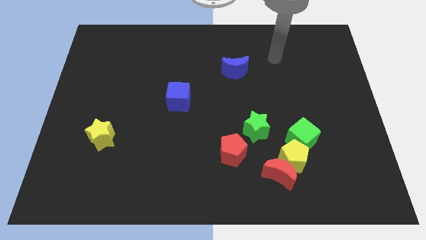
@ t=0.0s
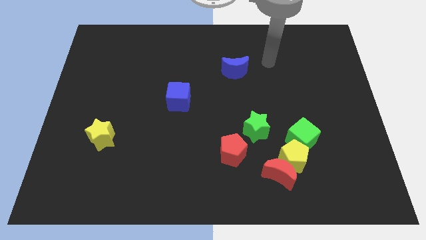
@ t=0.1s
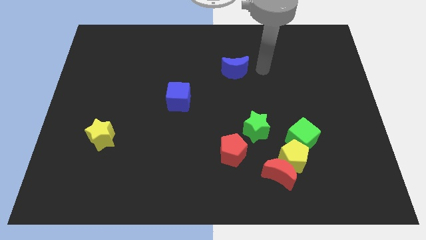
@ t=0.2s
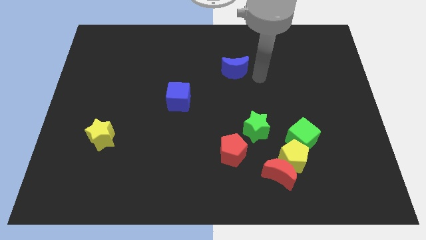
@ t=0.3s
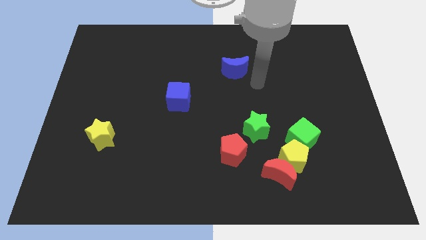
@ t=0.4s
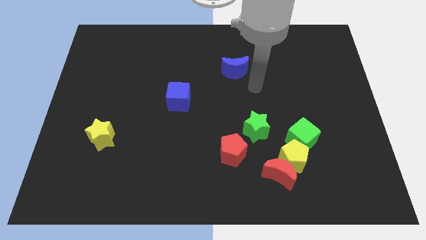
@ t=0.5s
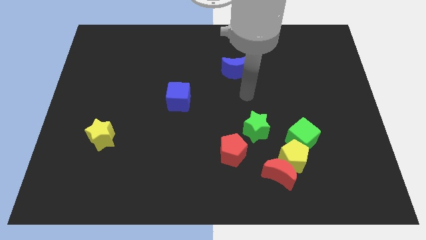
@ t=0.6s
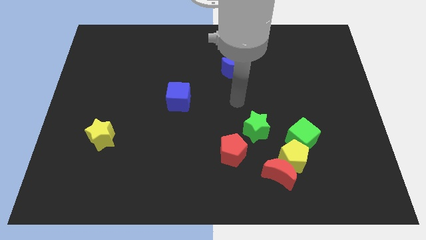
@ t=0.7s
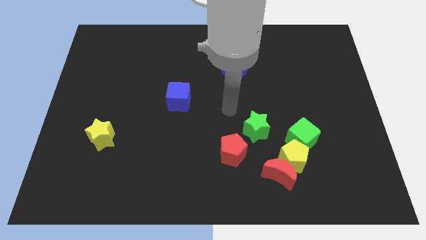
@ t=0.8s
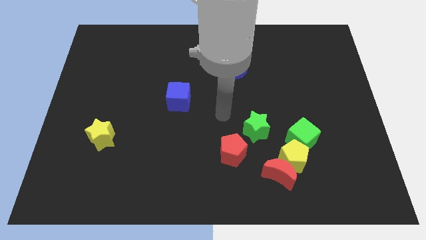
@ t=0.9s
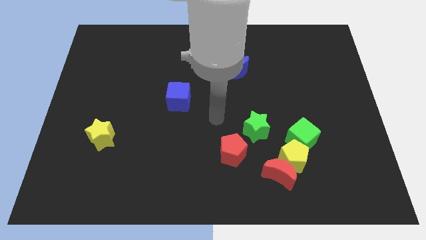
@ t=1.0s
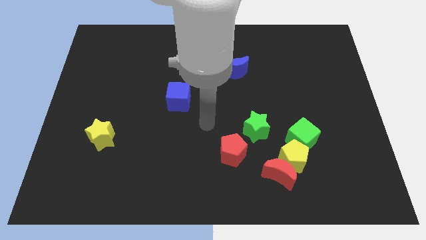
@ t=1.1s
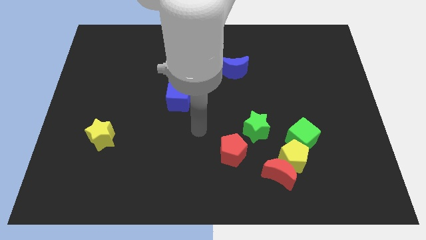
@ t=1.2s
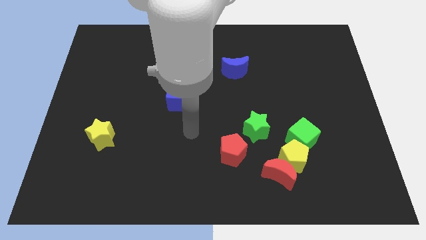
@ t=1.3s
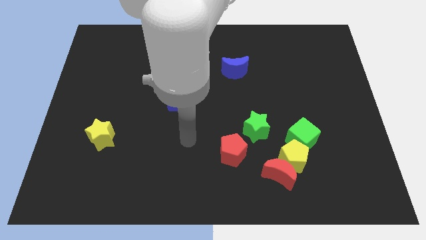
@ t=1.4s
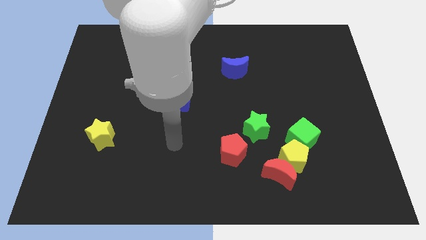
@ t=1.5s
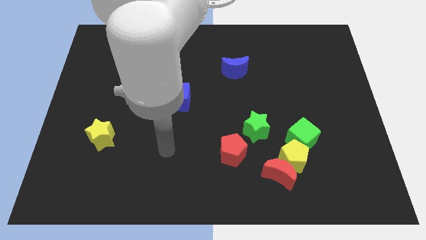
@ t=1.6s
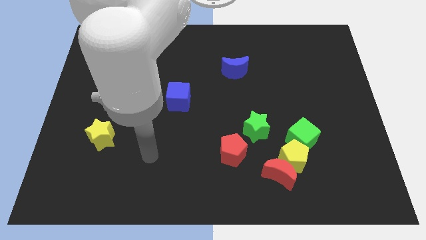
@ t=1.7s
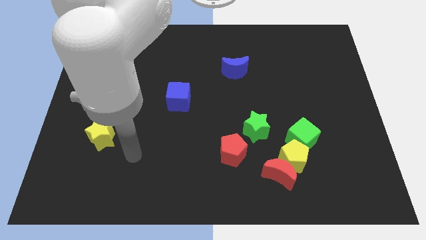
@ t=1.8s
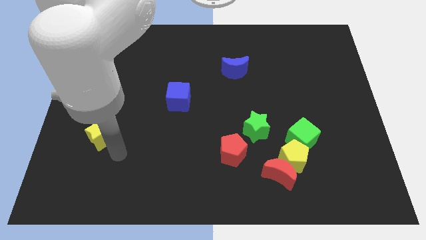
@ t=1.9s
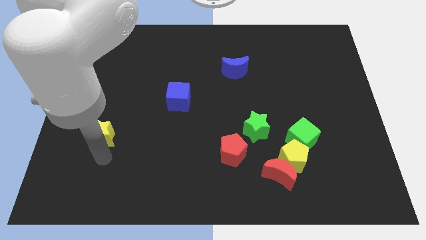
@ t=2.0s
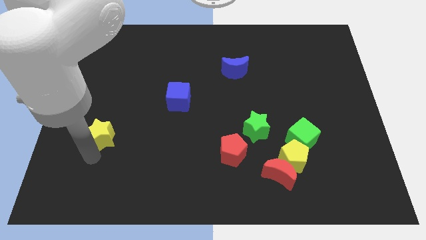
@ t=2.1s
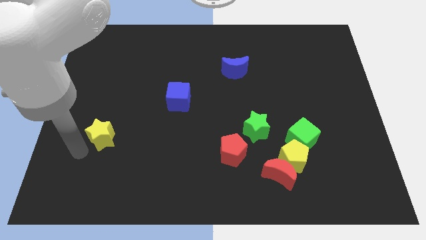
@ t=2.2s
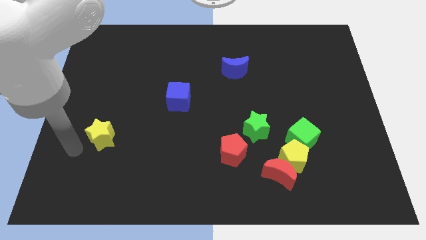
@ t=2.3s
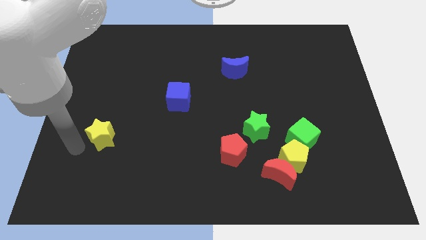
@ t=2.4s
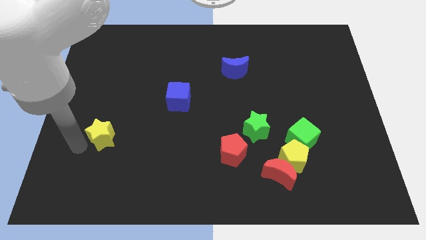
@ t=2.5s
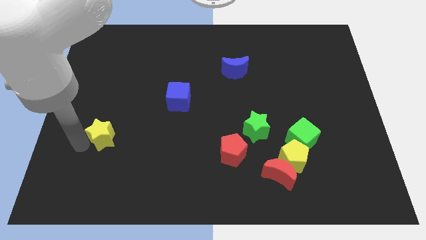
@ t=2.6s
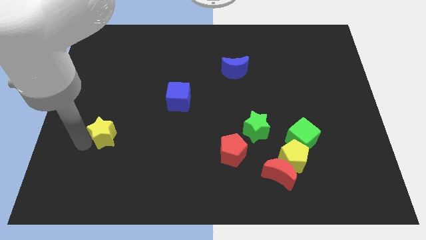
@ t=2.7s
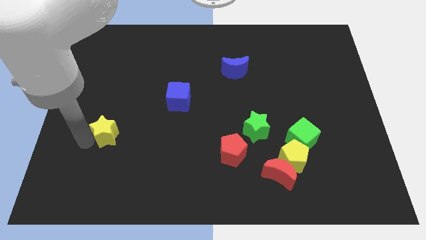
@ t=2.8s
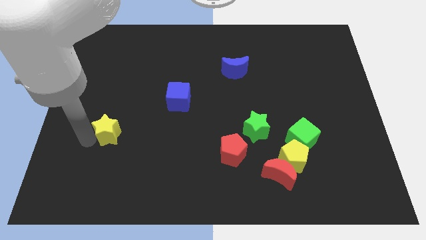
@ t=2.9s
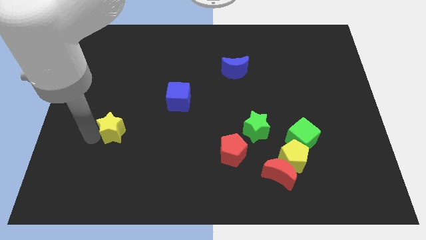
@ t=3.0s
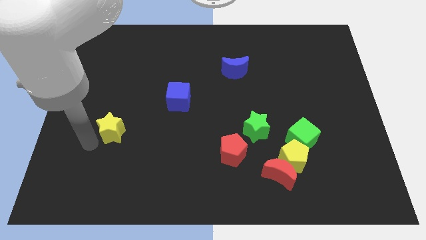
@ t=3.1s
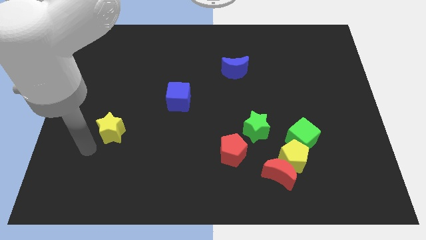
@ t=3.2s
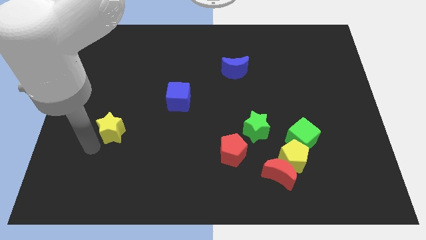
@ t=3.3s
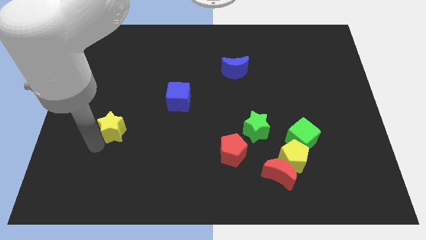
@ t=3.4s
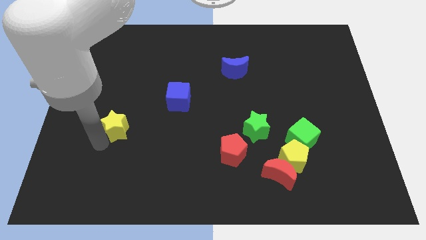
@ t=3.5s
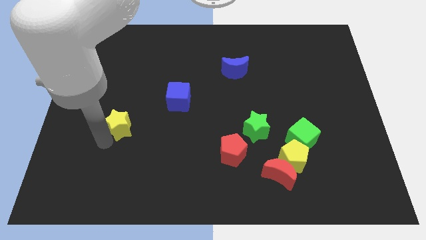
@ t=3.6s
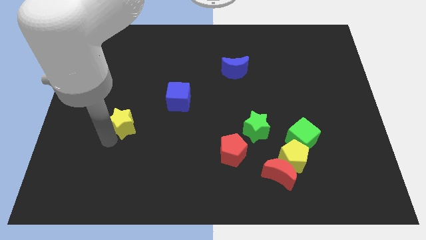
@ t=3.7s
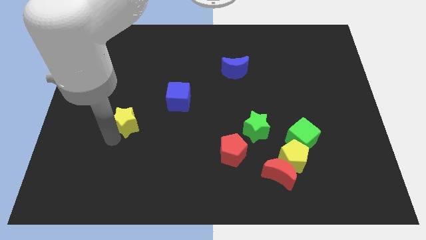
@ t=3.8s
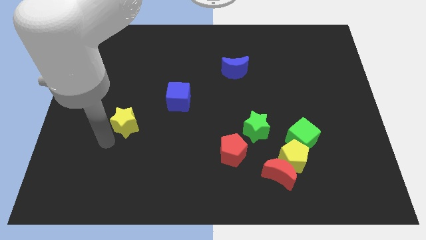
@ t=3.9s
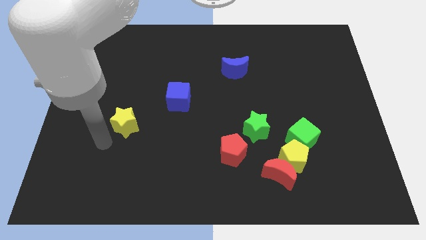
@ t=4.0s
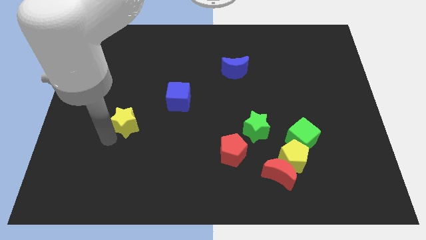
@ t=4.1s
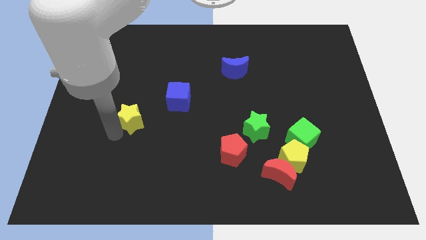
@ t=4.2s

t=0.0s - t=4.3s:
move the yellow star slightly diagonally up and to the right

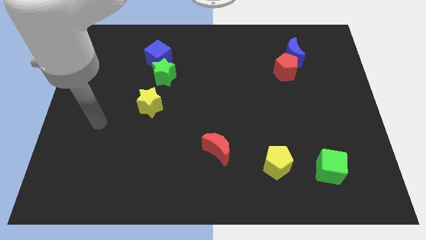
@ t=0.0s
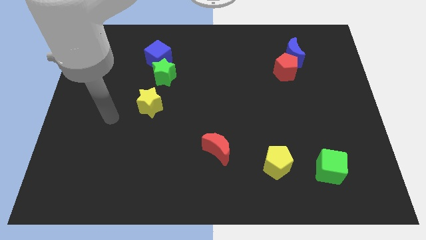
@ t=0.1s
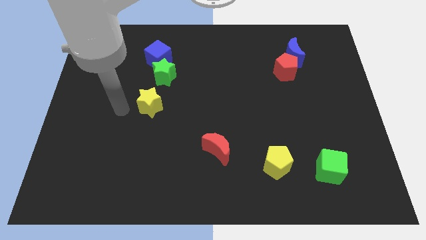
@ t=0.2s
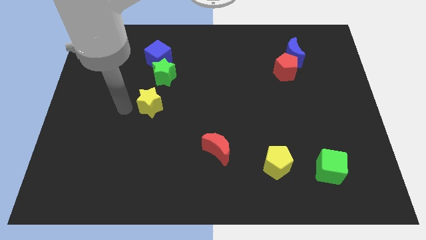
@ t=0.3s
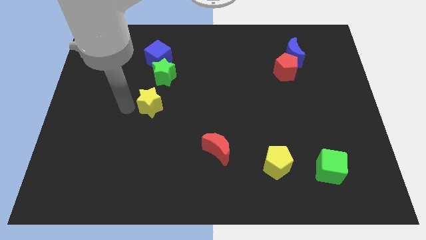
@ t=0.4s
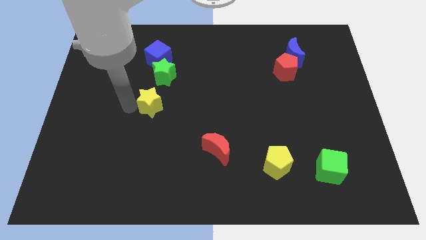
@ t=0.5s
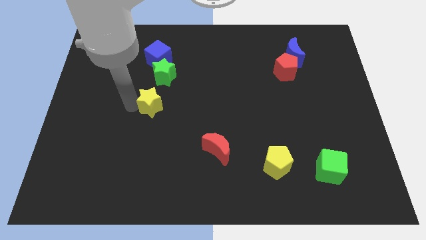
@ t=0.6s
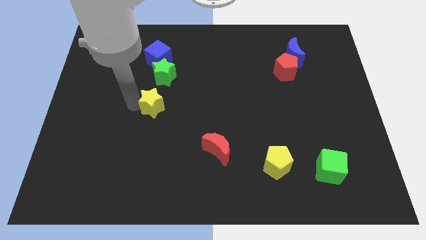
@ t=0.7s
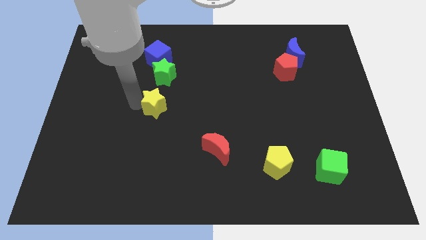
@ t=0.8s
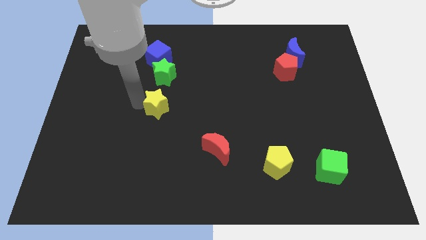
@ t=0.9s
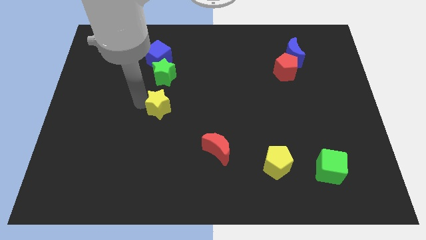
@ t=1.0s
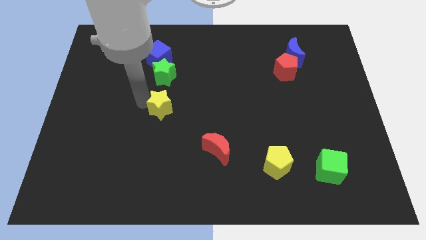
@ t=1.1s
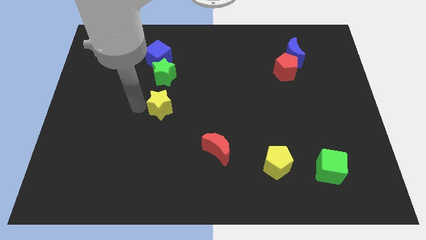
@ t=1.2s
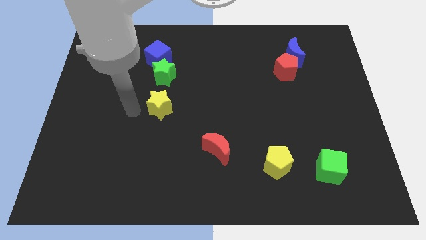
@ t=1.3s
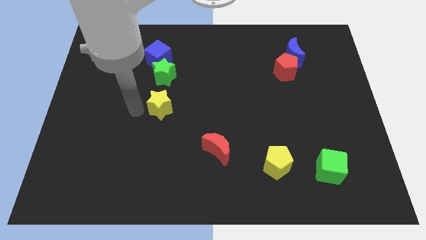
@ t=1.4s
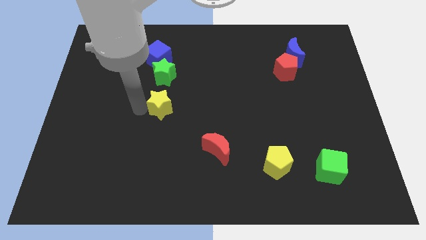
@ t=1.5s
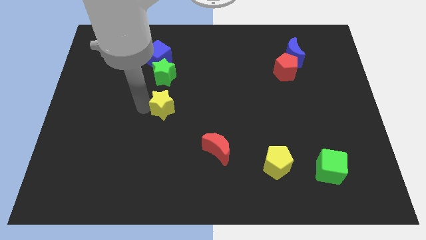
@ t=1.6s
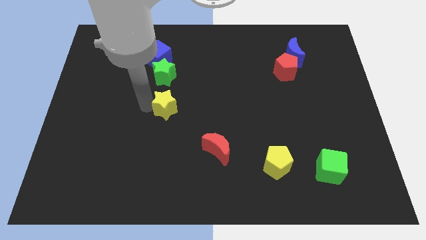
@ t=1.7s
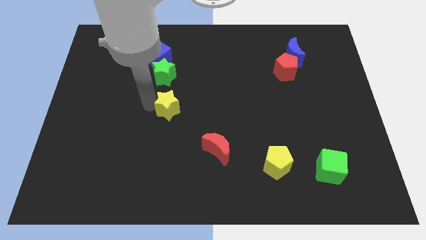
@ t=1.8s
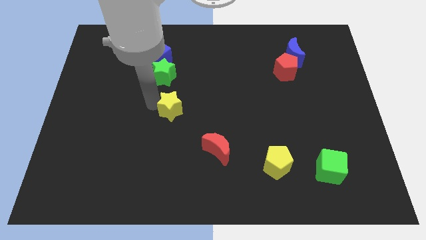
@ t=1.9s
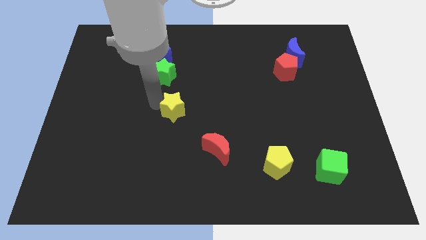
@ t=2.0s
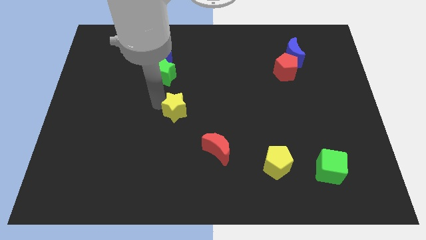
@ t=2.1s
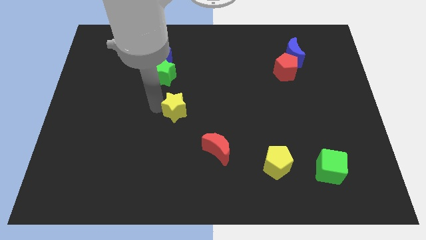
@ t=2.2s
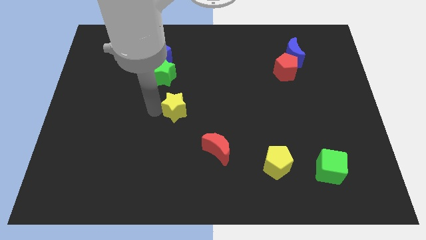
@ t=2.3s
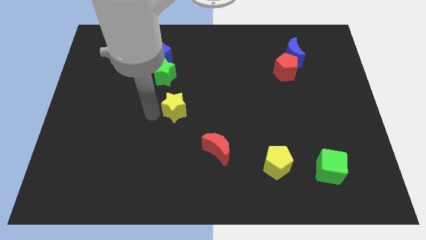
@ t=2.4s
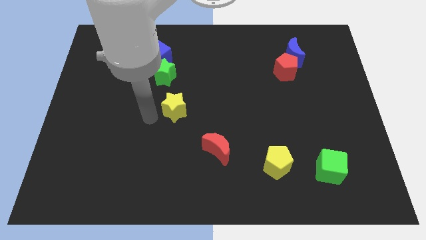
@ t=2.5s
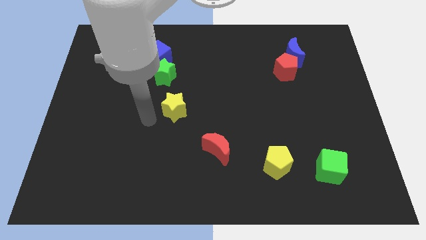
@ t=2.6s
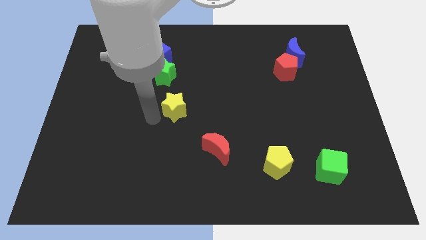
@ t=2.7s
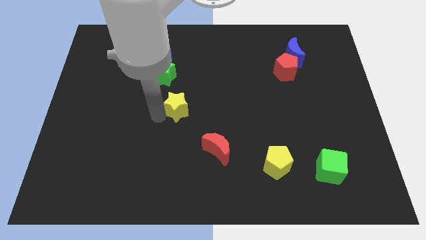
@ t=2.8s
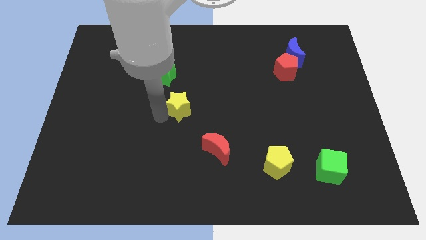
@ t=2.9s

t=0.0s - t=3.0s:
slide the yellow star a little bit right

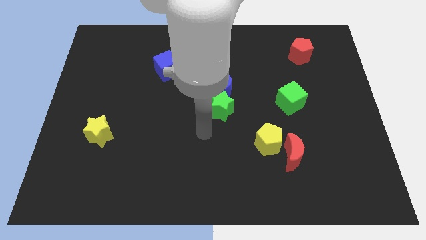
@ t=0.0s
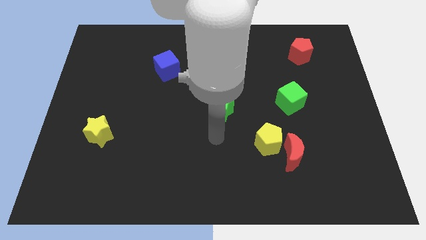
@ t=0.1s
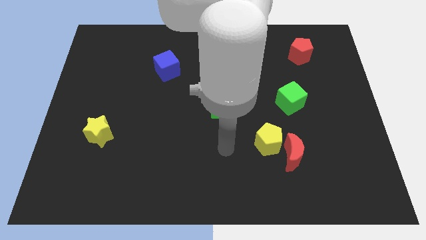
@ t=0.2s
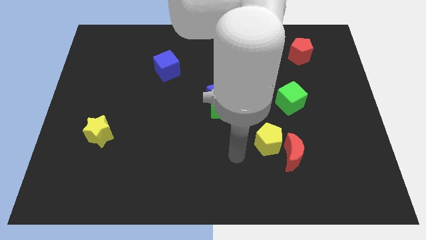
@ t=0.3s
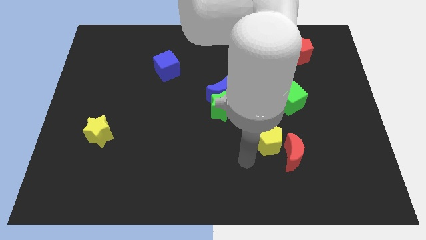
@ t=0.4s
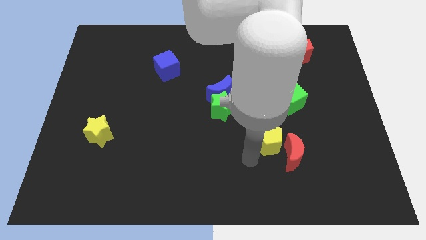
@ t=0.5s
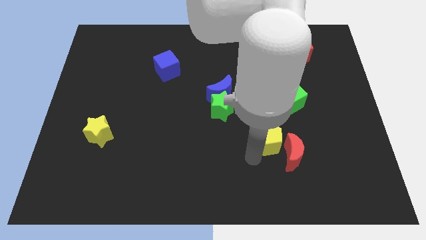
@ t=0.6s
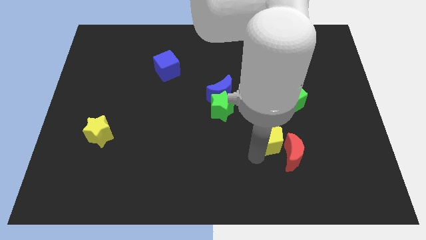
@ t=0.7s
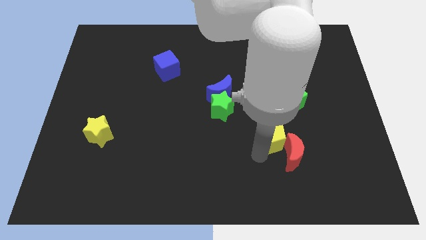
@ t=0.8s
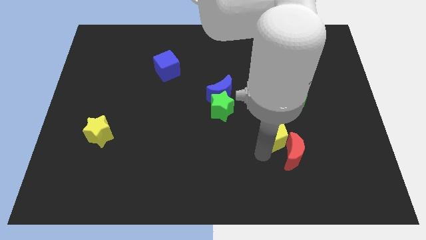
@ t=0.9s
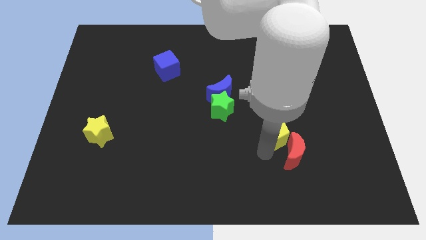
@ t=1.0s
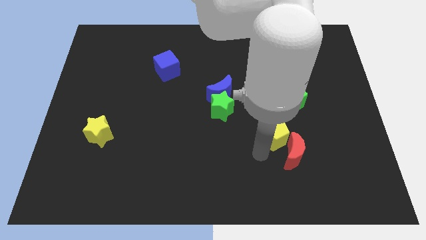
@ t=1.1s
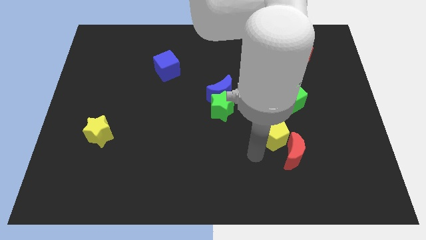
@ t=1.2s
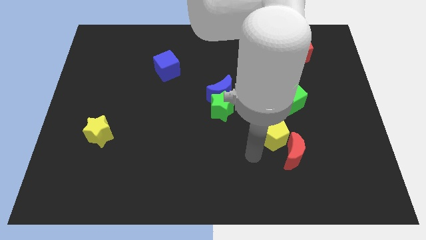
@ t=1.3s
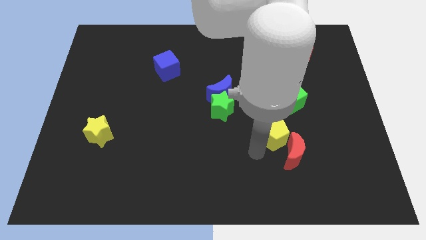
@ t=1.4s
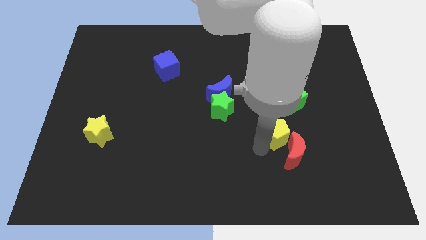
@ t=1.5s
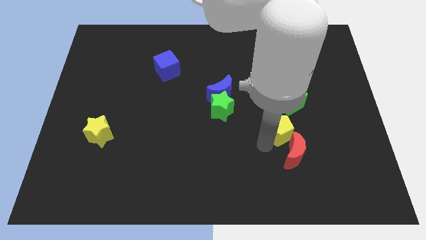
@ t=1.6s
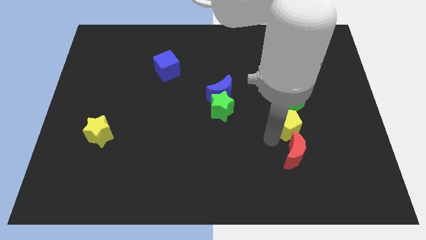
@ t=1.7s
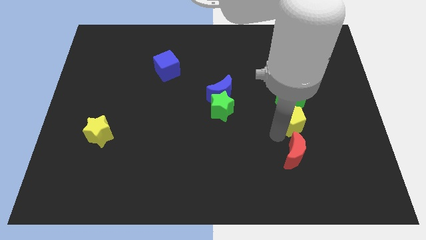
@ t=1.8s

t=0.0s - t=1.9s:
push the yellow pentagon a little up and to the right diagonally
